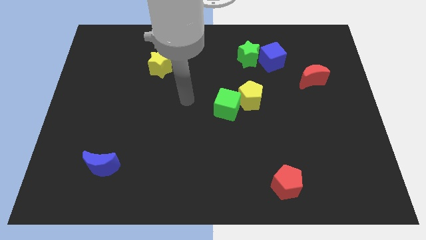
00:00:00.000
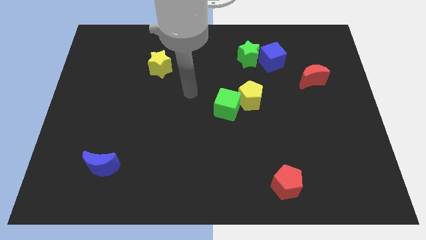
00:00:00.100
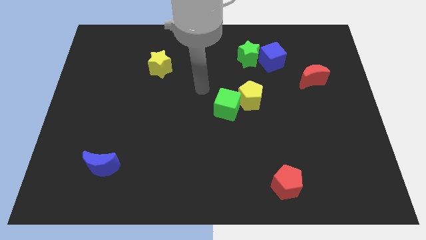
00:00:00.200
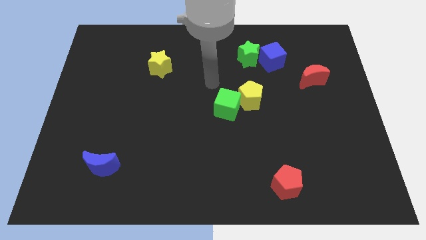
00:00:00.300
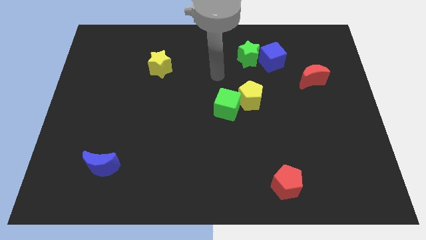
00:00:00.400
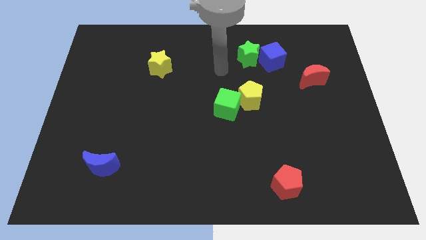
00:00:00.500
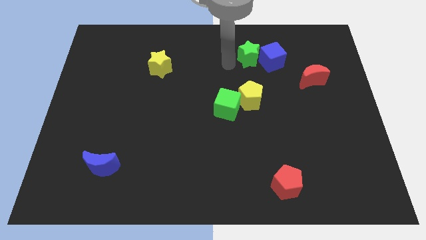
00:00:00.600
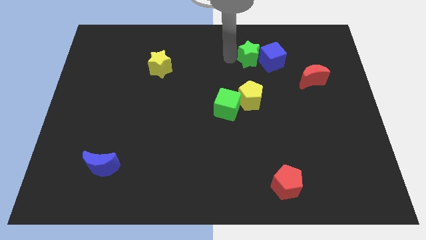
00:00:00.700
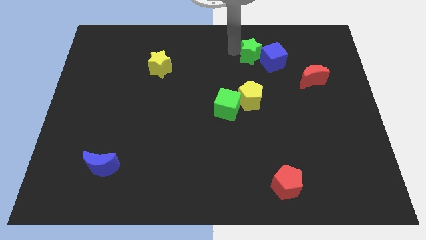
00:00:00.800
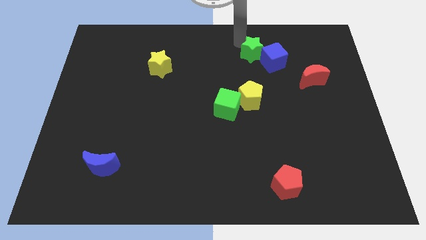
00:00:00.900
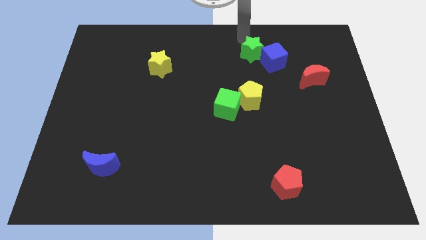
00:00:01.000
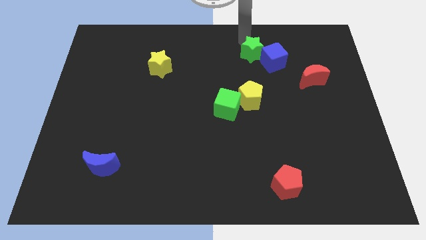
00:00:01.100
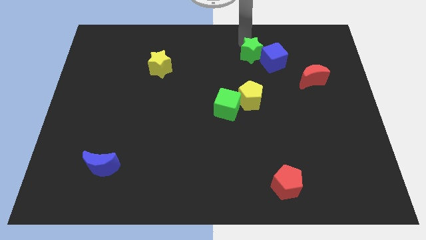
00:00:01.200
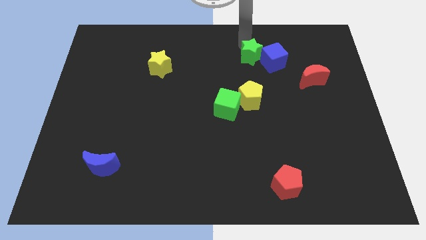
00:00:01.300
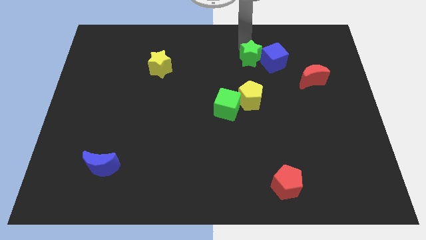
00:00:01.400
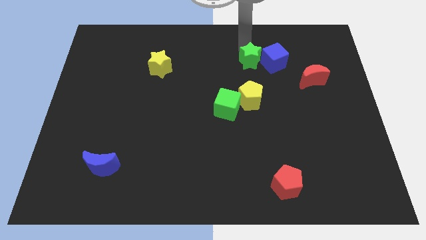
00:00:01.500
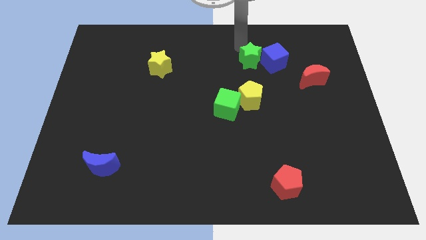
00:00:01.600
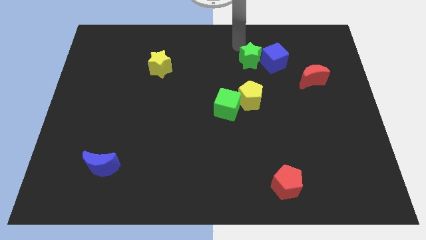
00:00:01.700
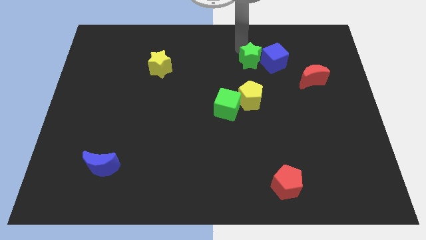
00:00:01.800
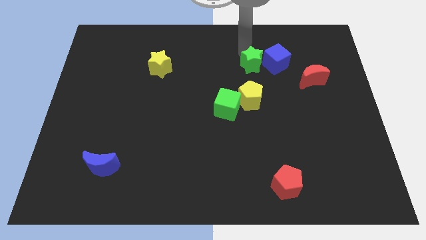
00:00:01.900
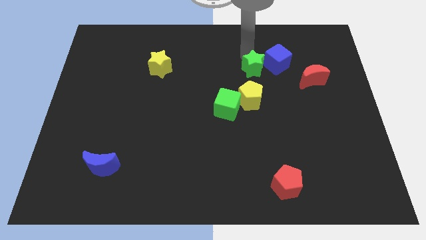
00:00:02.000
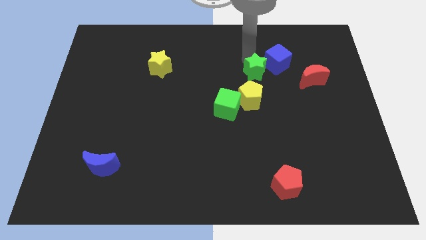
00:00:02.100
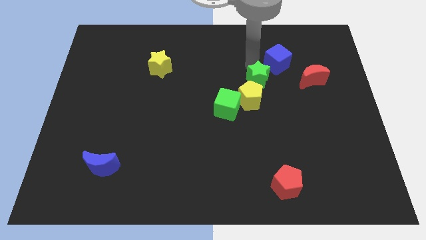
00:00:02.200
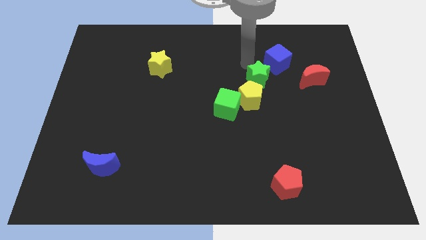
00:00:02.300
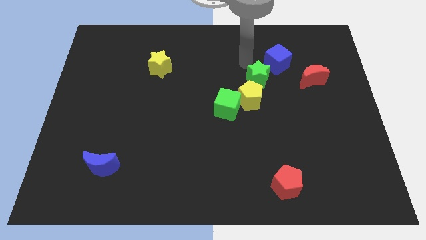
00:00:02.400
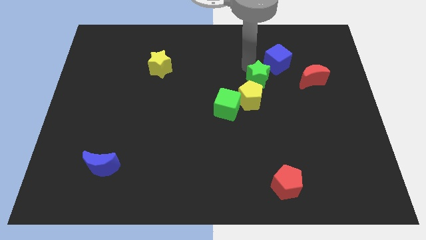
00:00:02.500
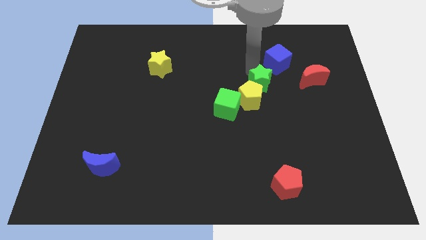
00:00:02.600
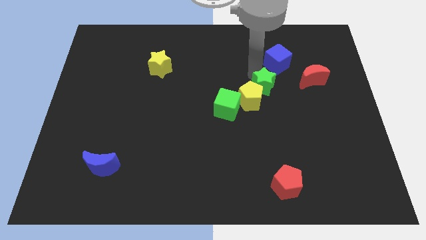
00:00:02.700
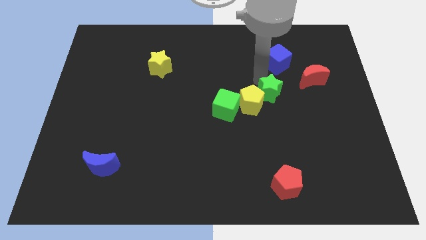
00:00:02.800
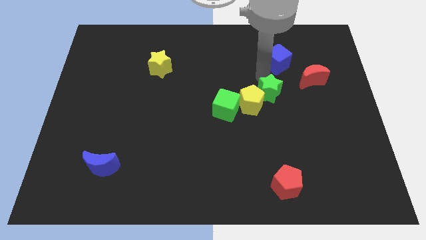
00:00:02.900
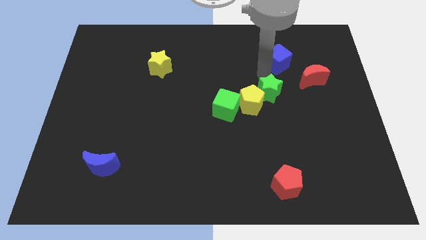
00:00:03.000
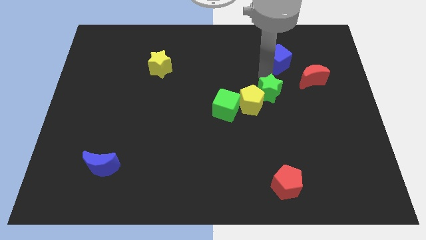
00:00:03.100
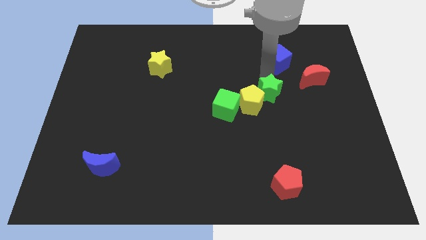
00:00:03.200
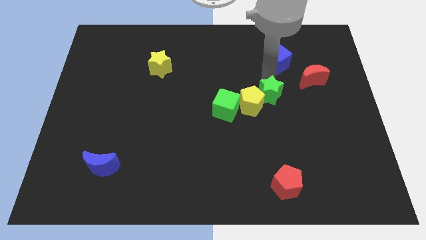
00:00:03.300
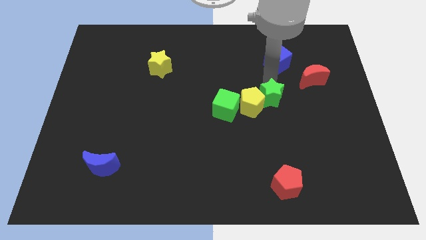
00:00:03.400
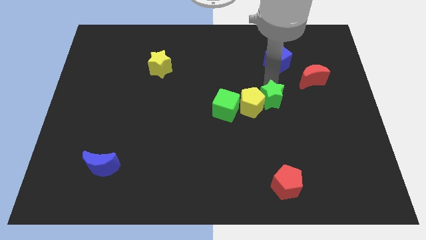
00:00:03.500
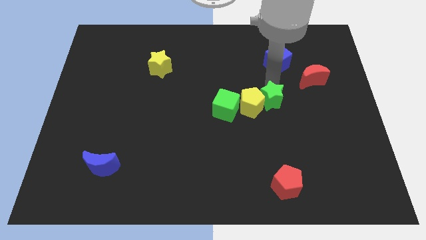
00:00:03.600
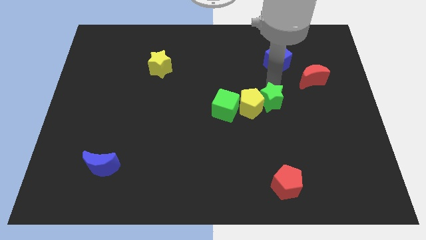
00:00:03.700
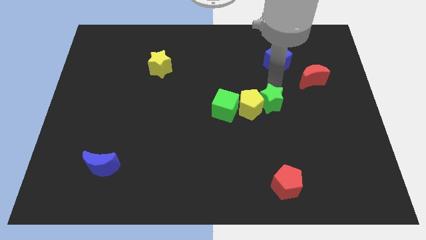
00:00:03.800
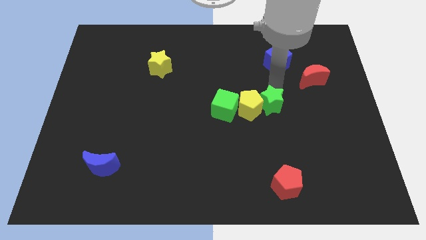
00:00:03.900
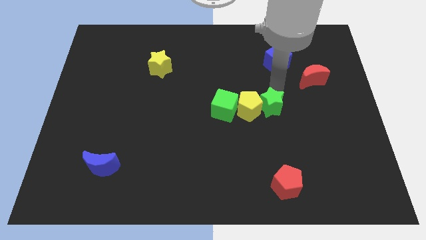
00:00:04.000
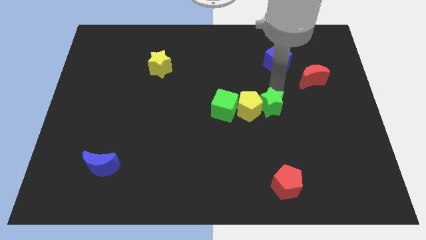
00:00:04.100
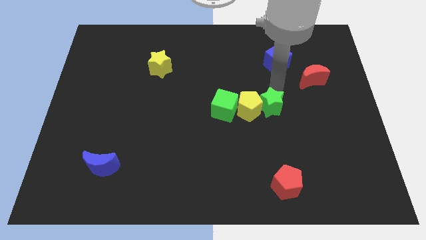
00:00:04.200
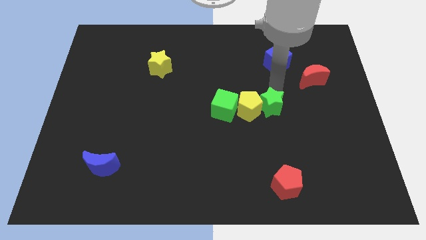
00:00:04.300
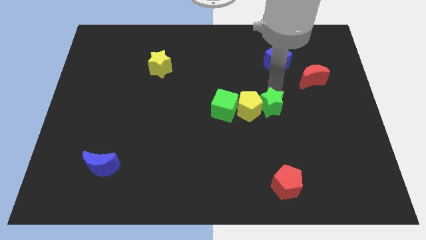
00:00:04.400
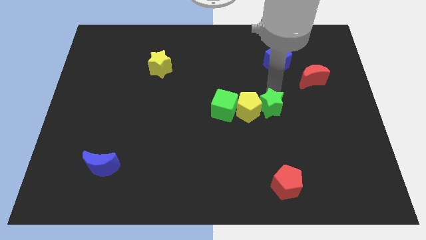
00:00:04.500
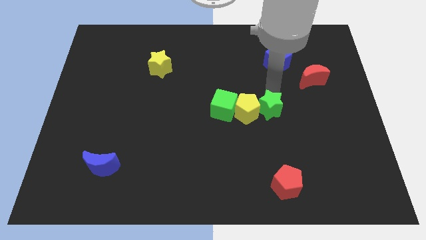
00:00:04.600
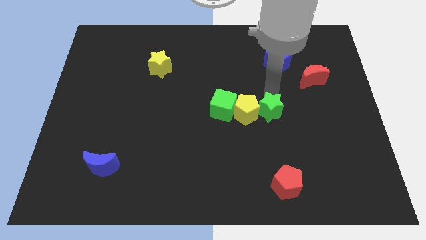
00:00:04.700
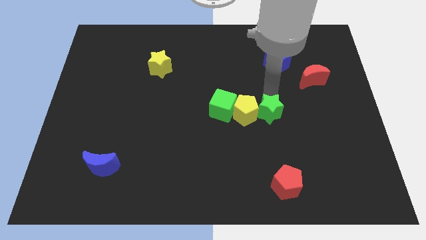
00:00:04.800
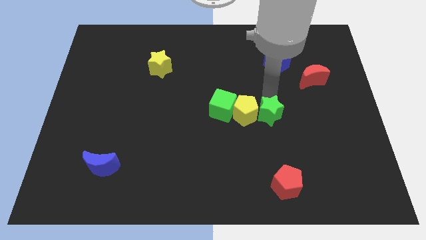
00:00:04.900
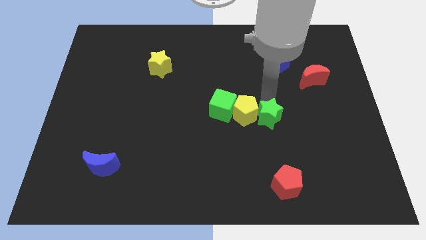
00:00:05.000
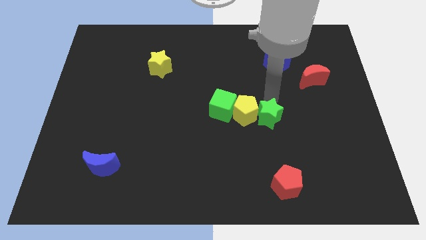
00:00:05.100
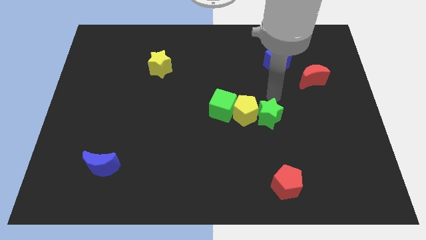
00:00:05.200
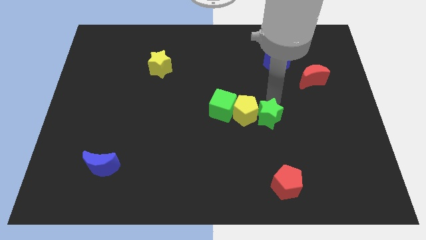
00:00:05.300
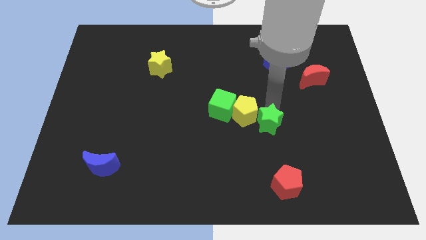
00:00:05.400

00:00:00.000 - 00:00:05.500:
move the green star down

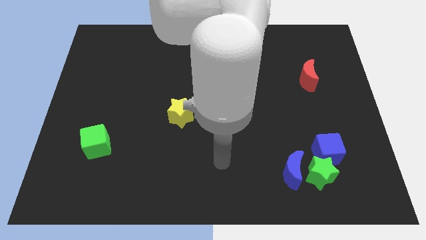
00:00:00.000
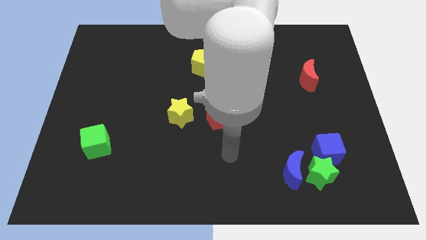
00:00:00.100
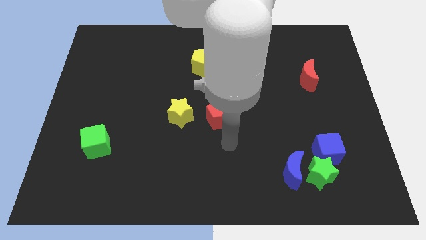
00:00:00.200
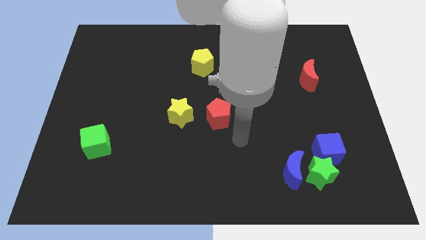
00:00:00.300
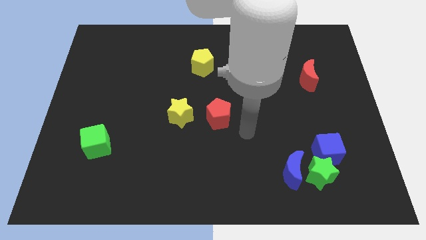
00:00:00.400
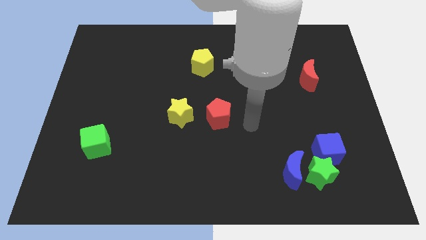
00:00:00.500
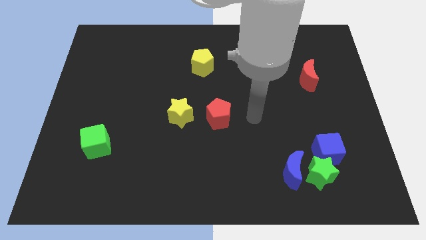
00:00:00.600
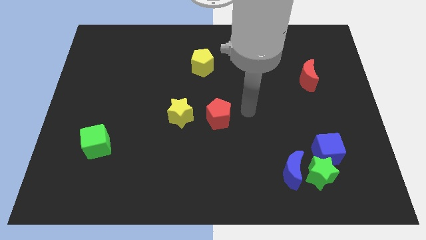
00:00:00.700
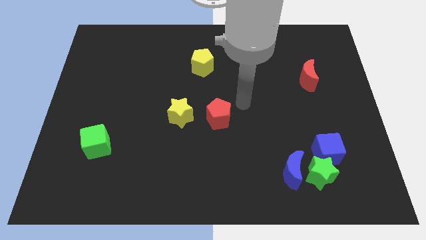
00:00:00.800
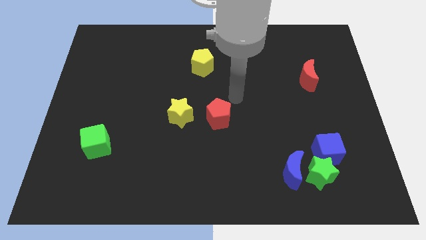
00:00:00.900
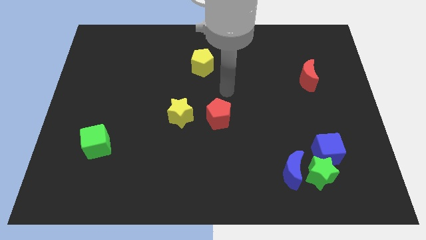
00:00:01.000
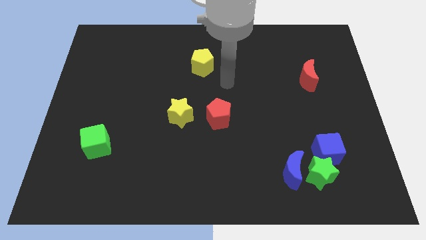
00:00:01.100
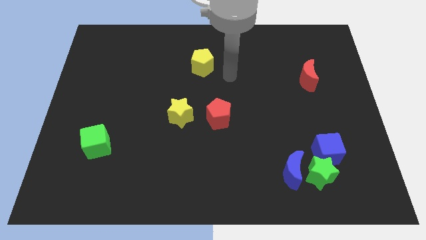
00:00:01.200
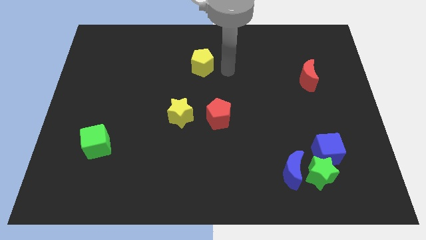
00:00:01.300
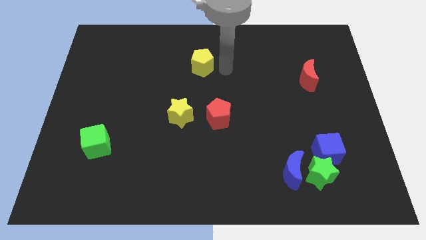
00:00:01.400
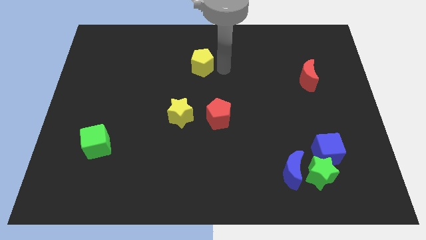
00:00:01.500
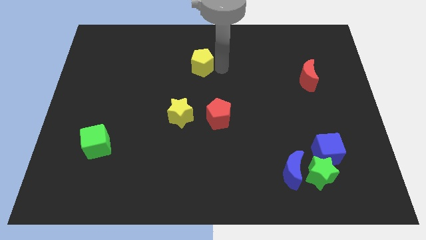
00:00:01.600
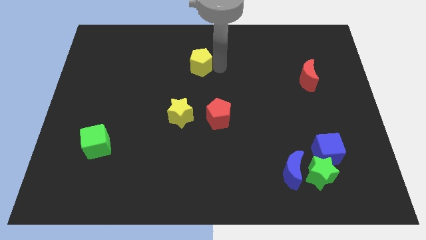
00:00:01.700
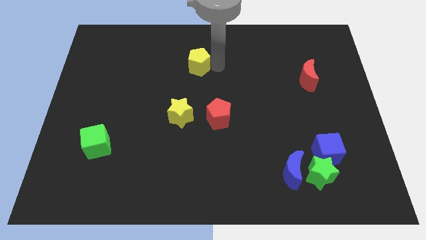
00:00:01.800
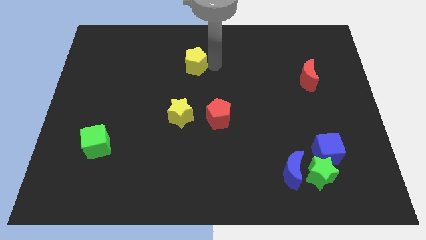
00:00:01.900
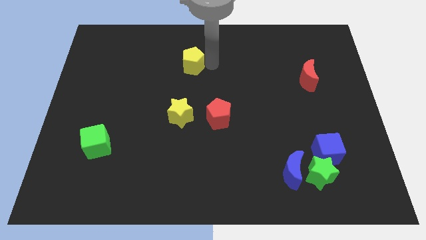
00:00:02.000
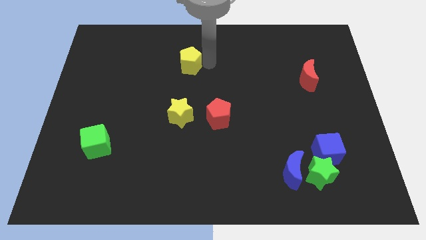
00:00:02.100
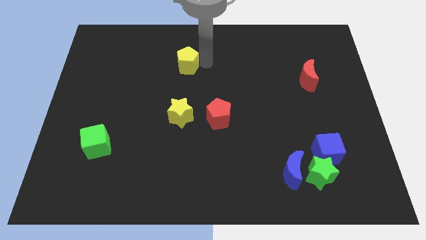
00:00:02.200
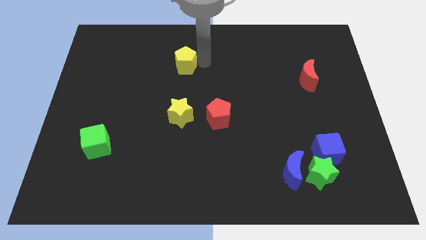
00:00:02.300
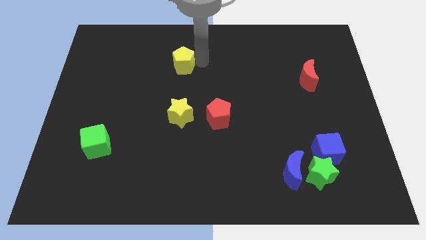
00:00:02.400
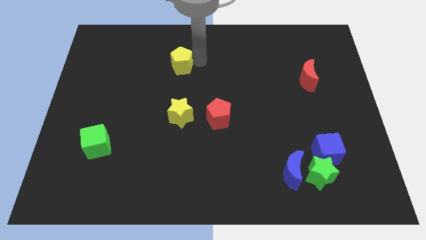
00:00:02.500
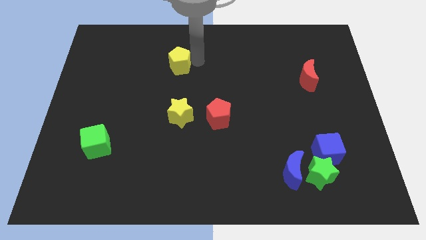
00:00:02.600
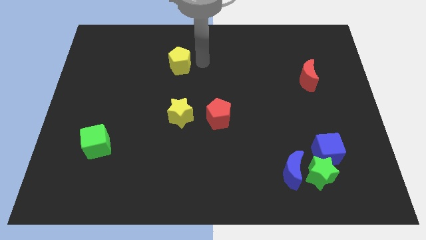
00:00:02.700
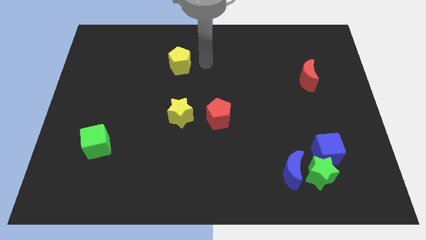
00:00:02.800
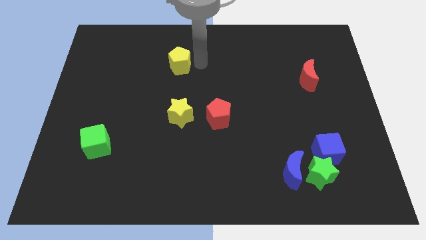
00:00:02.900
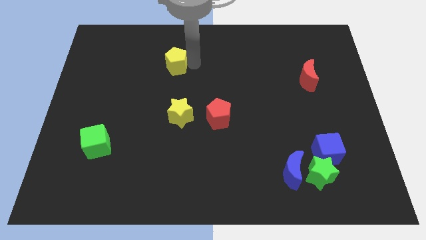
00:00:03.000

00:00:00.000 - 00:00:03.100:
push the yellow pentagon slightly left
